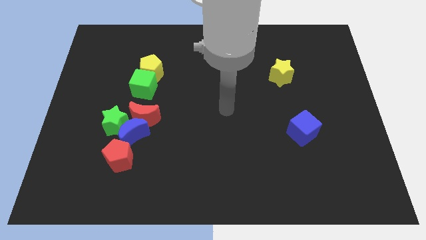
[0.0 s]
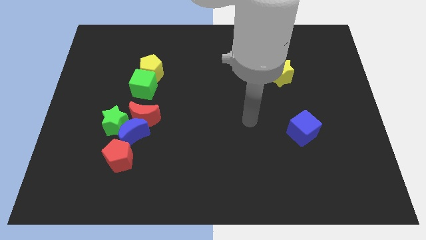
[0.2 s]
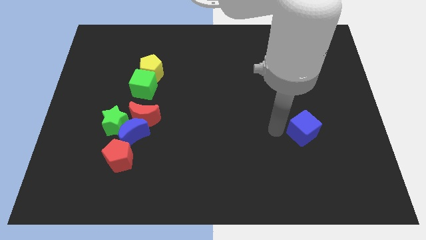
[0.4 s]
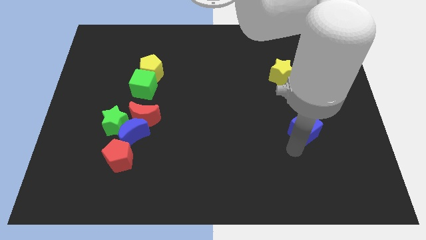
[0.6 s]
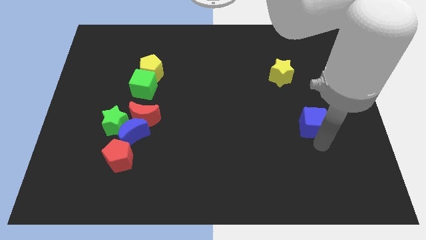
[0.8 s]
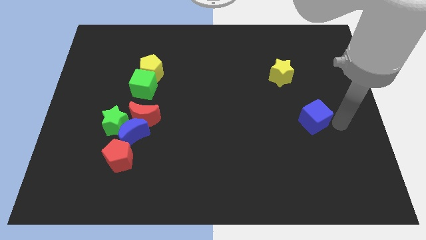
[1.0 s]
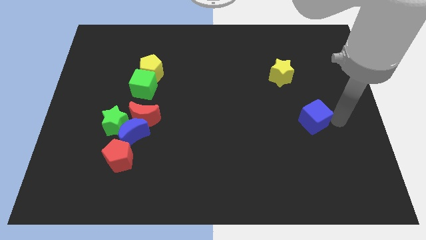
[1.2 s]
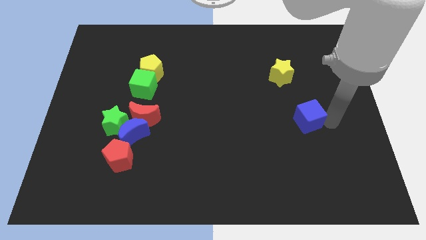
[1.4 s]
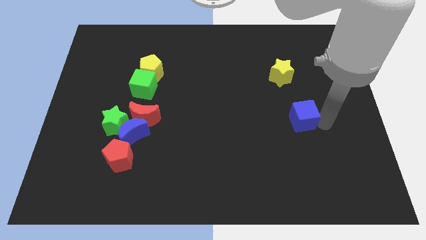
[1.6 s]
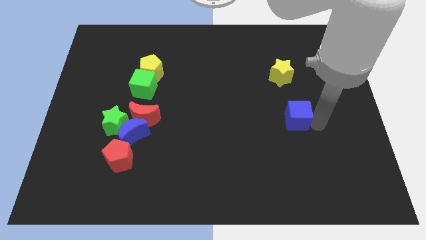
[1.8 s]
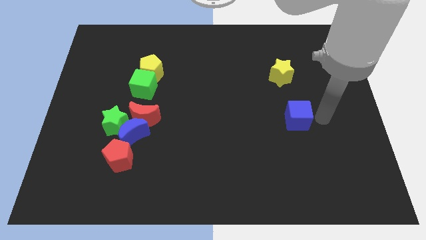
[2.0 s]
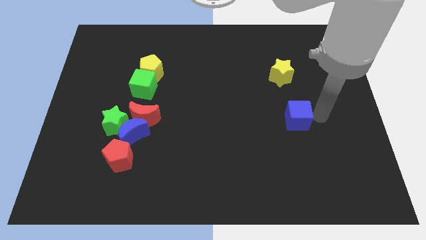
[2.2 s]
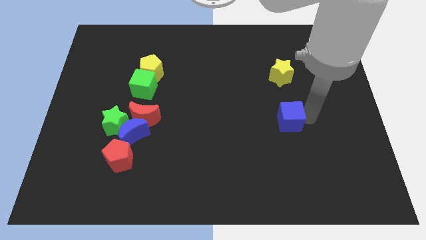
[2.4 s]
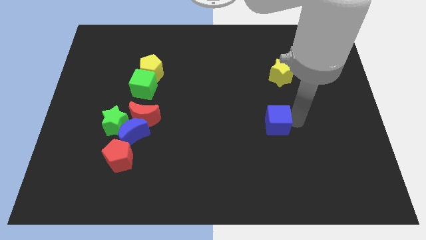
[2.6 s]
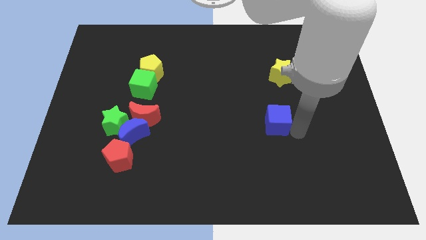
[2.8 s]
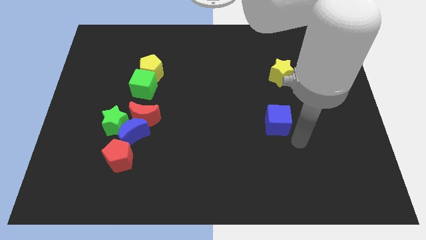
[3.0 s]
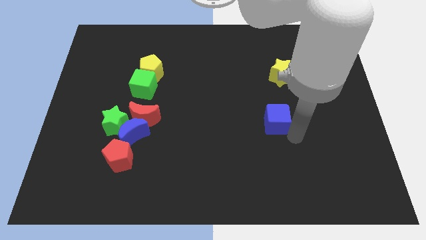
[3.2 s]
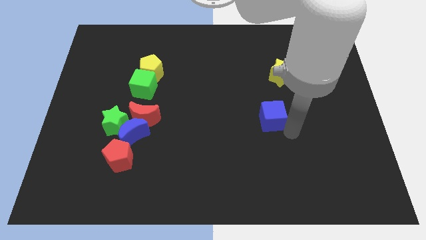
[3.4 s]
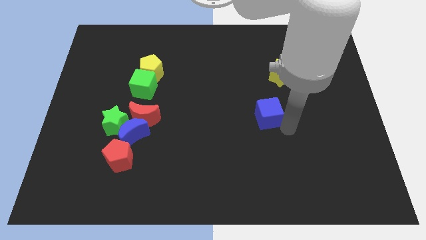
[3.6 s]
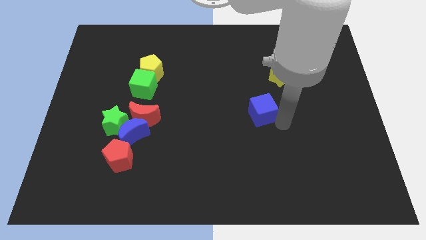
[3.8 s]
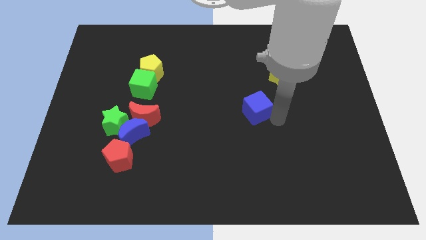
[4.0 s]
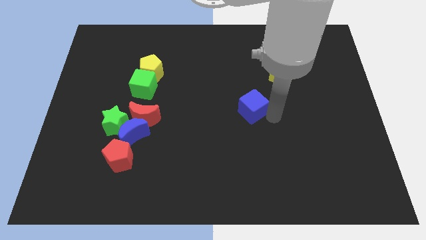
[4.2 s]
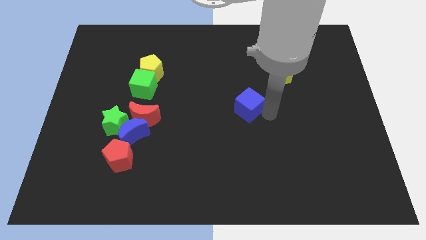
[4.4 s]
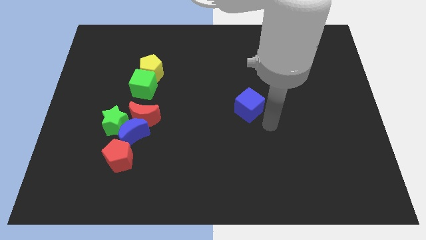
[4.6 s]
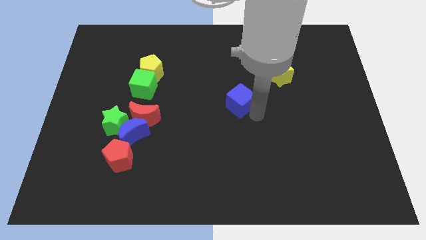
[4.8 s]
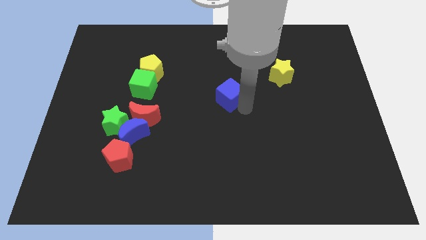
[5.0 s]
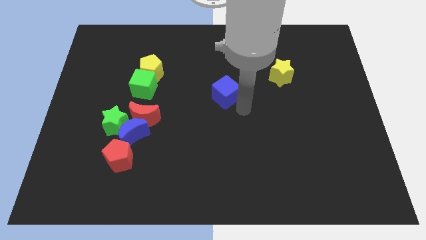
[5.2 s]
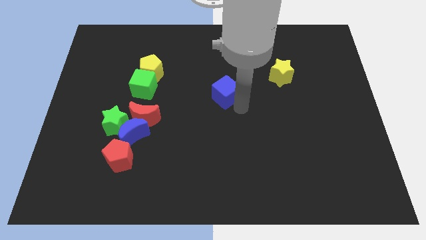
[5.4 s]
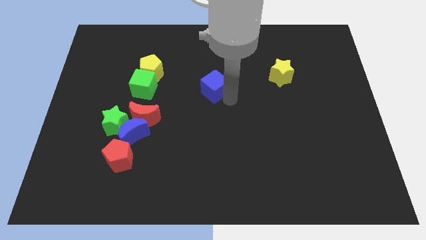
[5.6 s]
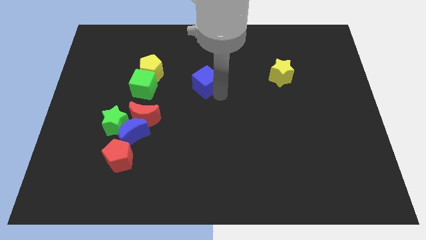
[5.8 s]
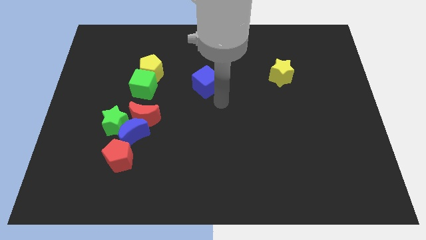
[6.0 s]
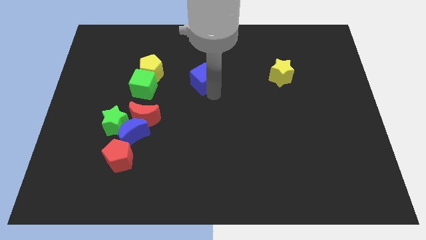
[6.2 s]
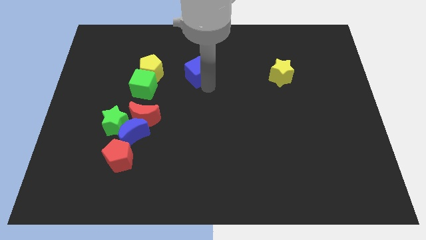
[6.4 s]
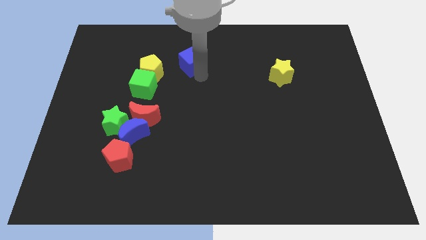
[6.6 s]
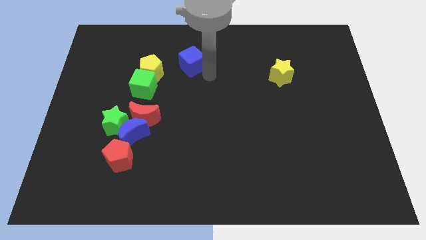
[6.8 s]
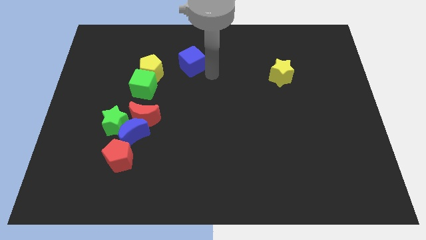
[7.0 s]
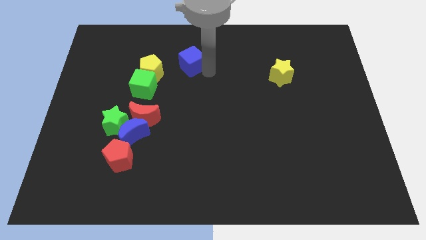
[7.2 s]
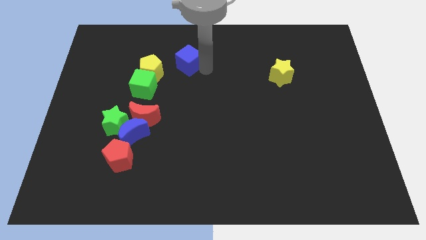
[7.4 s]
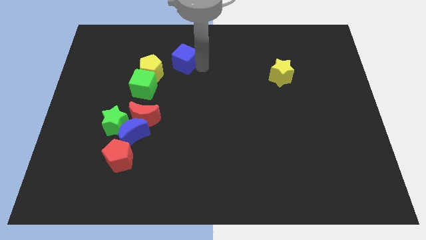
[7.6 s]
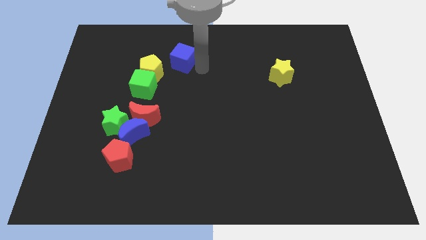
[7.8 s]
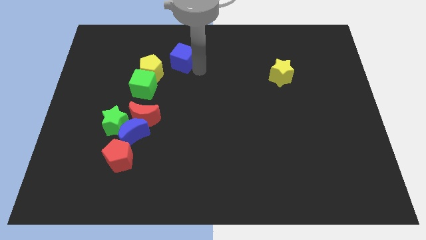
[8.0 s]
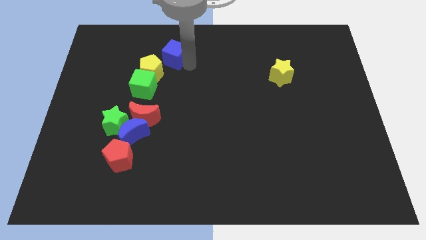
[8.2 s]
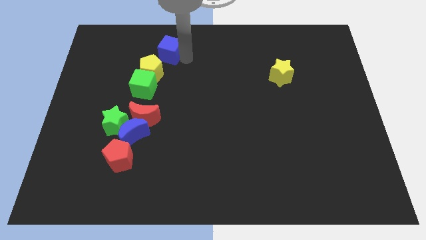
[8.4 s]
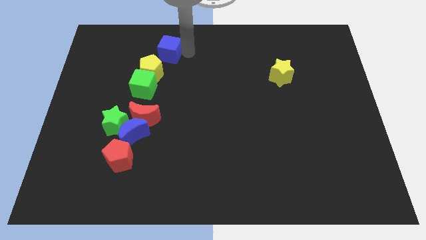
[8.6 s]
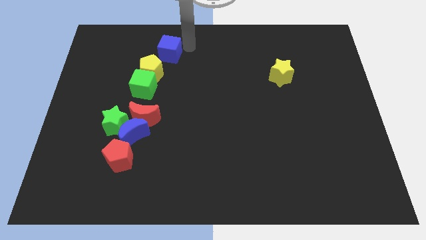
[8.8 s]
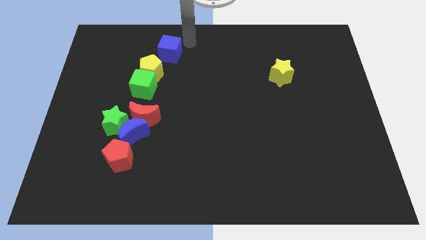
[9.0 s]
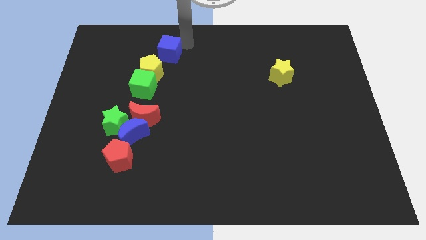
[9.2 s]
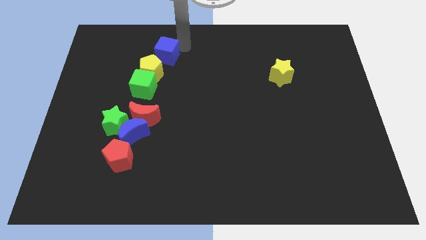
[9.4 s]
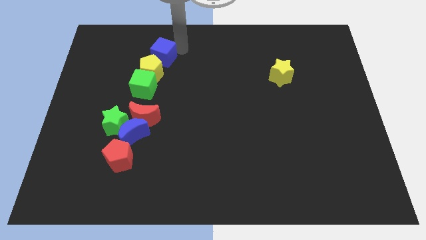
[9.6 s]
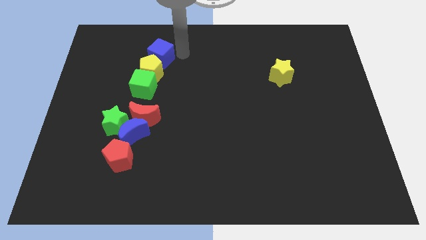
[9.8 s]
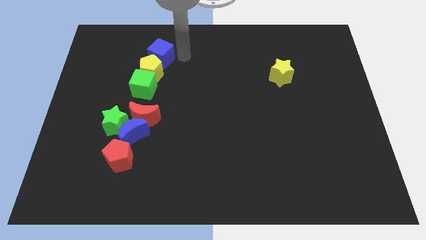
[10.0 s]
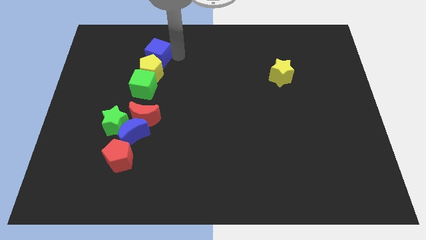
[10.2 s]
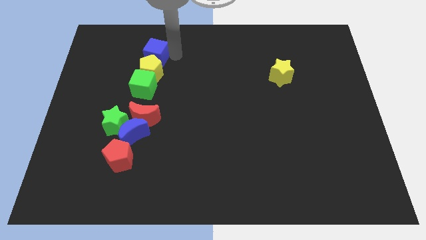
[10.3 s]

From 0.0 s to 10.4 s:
slide the blue cube to the top left side of the yellow pentagon

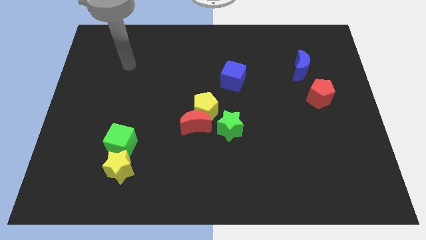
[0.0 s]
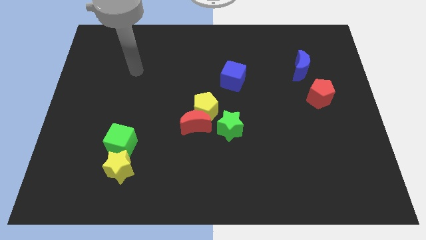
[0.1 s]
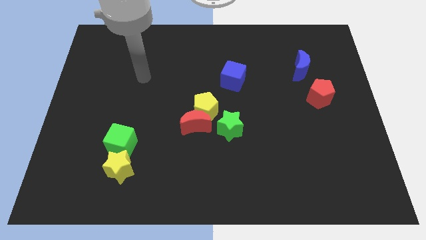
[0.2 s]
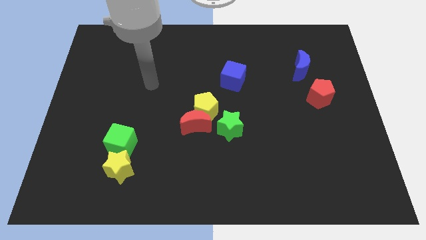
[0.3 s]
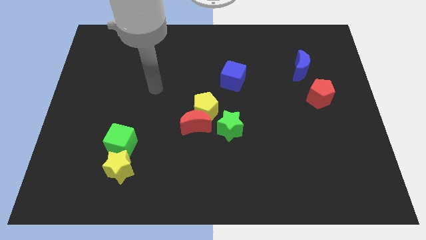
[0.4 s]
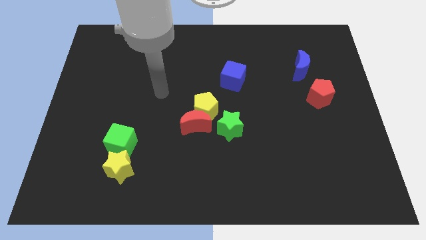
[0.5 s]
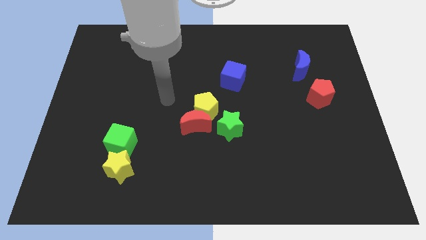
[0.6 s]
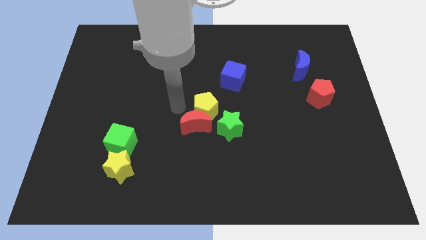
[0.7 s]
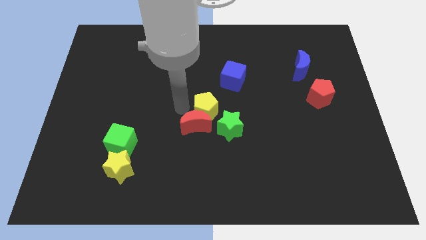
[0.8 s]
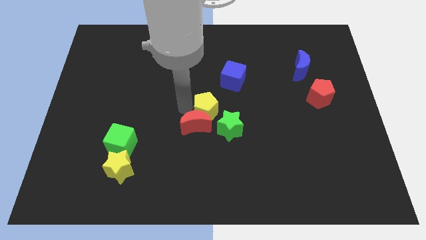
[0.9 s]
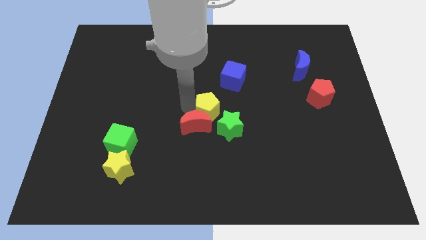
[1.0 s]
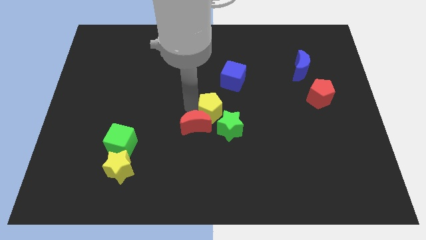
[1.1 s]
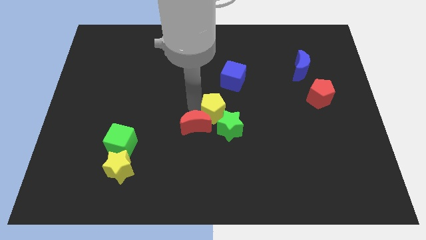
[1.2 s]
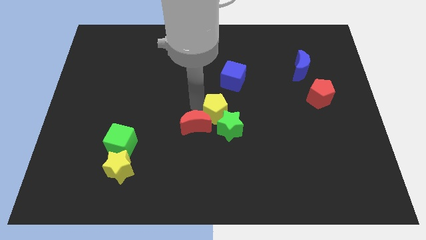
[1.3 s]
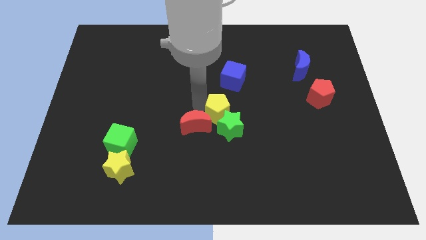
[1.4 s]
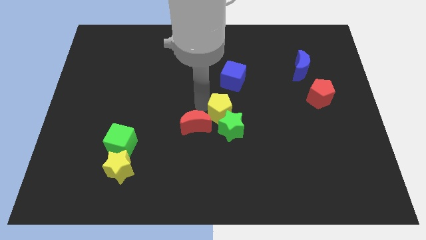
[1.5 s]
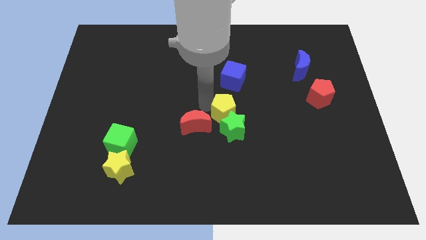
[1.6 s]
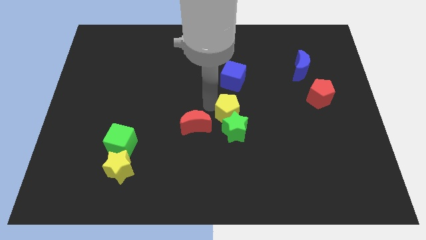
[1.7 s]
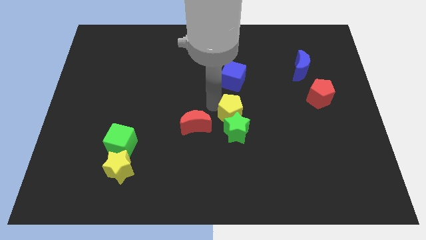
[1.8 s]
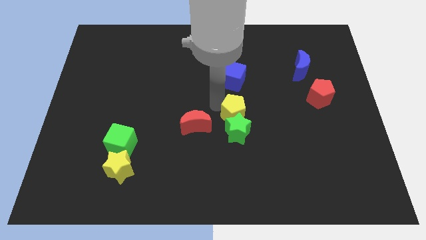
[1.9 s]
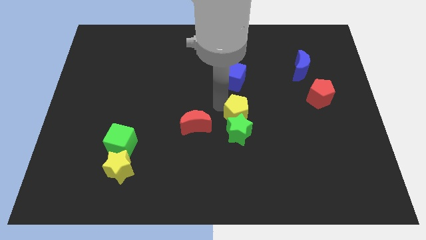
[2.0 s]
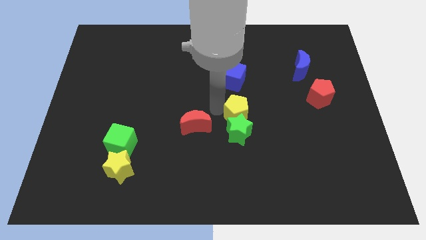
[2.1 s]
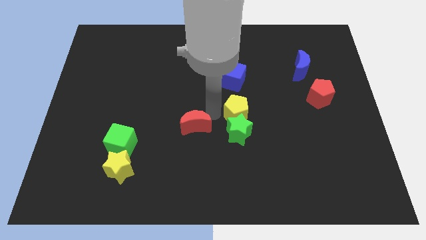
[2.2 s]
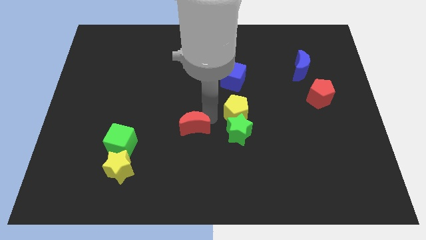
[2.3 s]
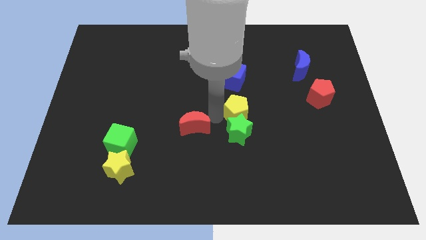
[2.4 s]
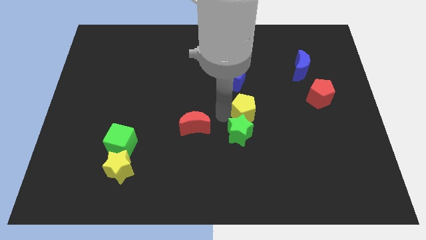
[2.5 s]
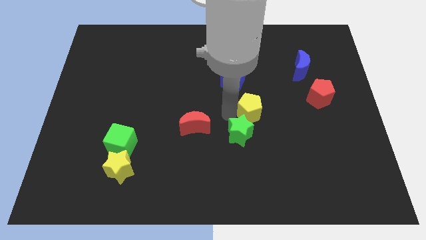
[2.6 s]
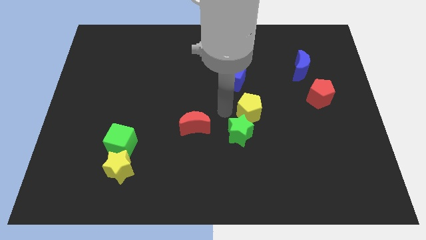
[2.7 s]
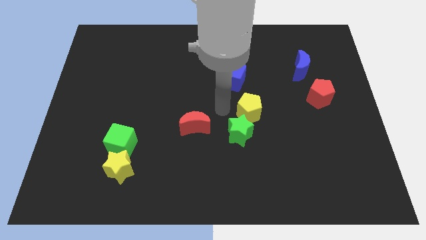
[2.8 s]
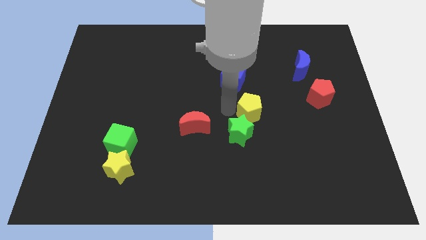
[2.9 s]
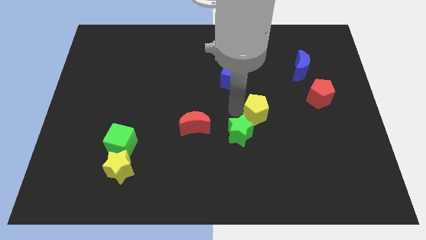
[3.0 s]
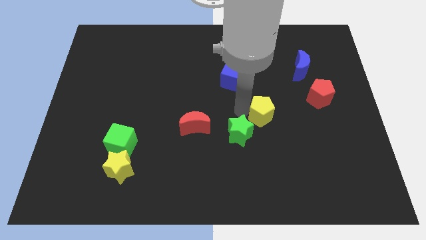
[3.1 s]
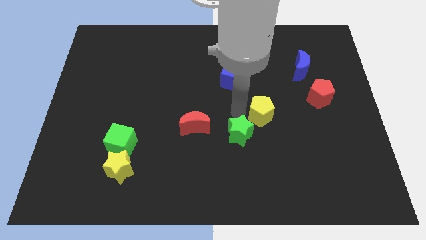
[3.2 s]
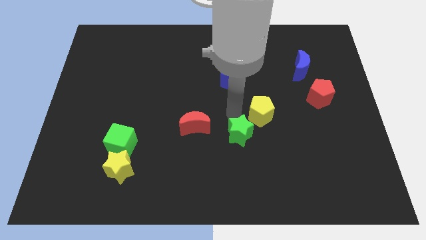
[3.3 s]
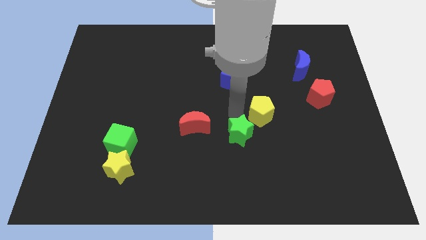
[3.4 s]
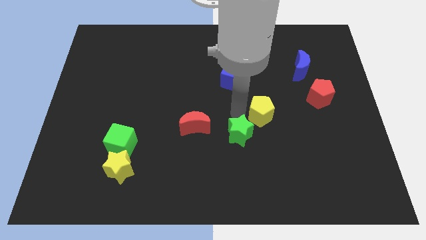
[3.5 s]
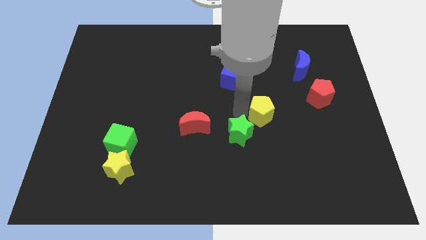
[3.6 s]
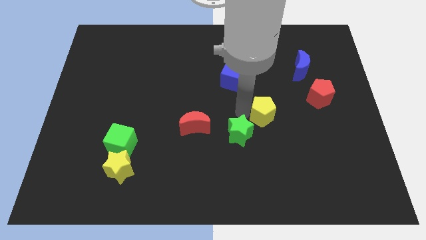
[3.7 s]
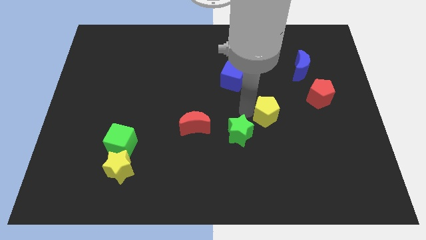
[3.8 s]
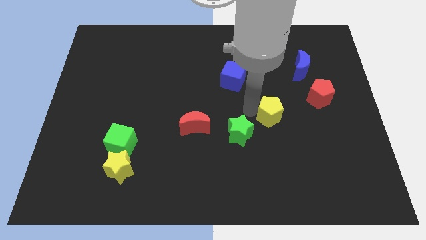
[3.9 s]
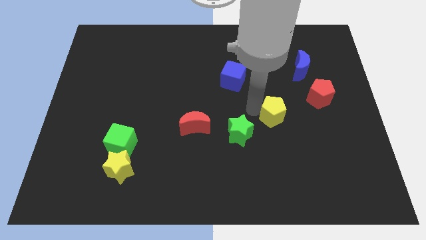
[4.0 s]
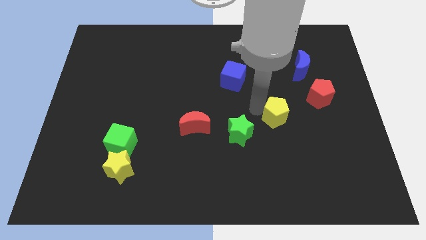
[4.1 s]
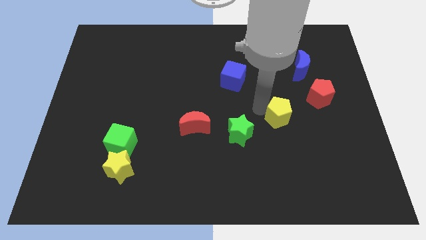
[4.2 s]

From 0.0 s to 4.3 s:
move the yellow pentagon to the bottom left side of the red pentagon
